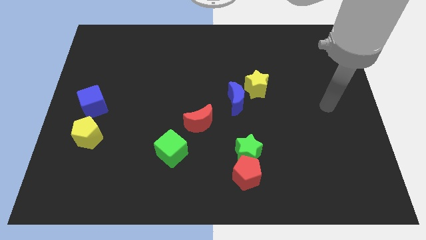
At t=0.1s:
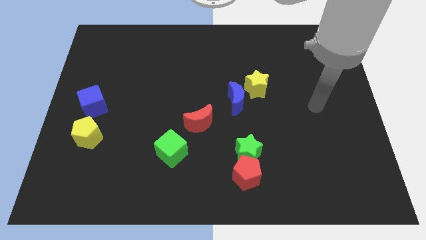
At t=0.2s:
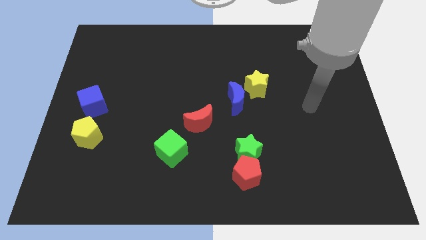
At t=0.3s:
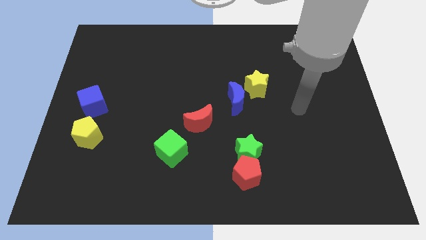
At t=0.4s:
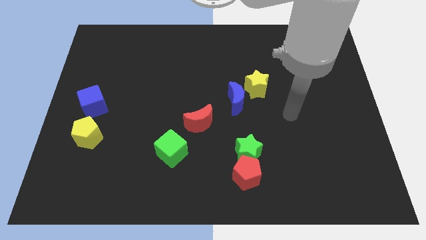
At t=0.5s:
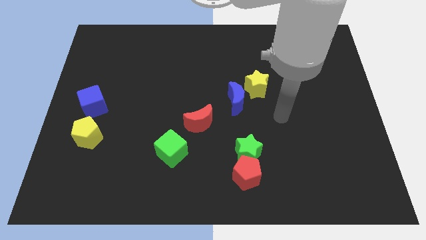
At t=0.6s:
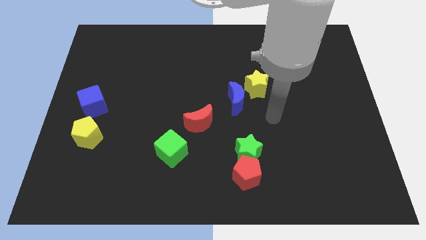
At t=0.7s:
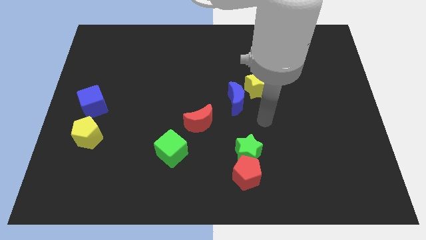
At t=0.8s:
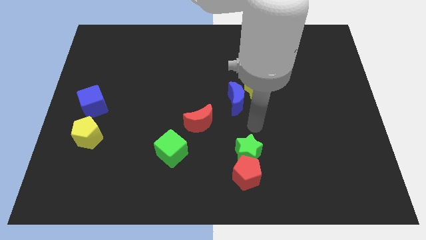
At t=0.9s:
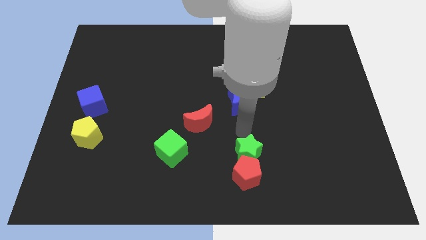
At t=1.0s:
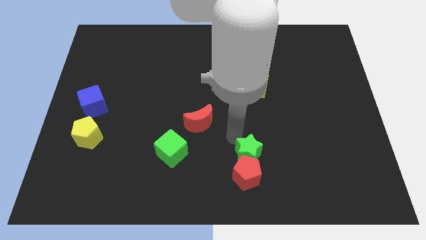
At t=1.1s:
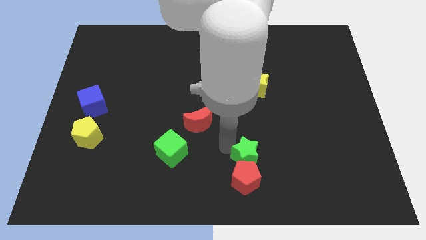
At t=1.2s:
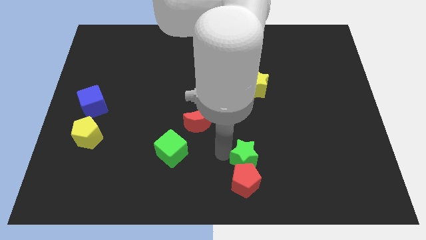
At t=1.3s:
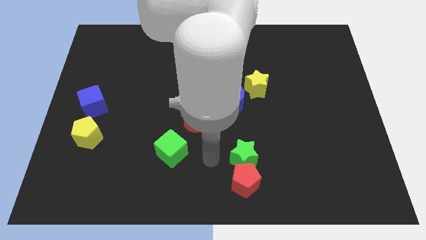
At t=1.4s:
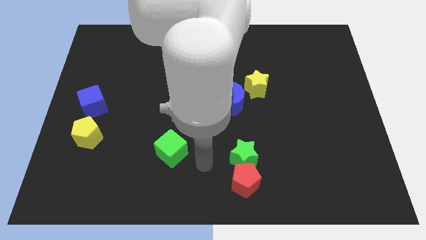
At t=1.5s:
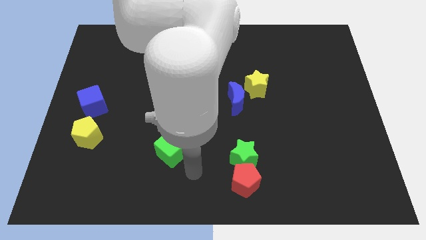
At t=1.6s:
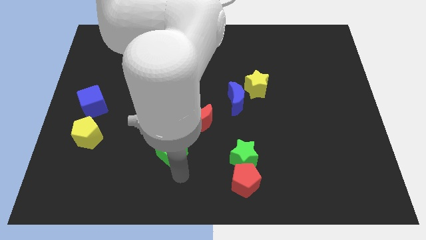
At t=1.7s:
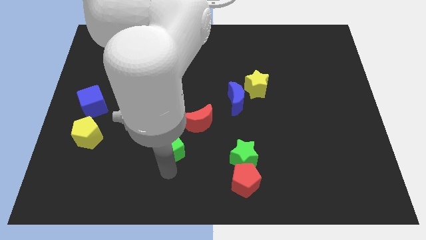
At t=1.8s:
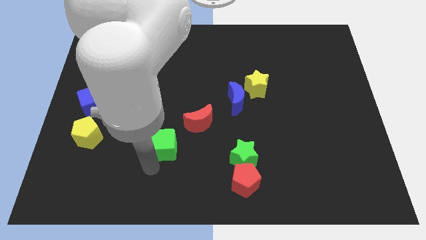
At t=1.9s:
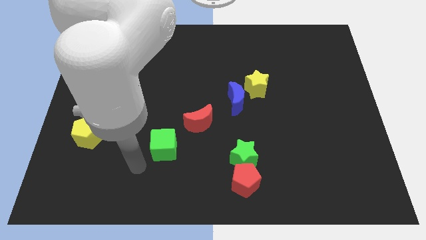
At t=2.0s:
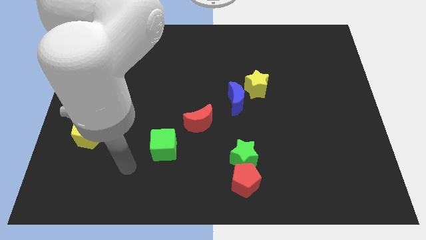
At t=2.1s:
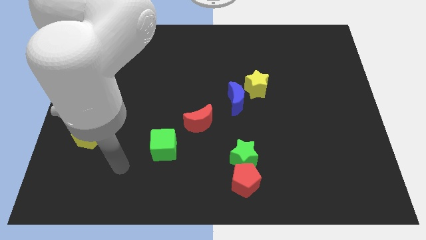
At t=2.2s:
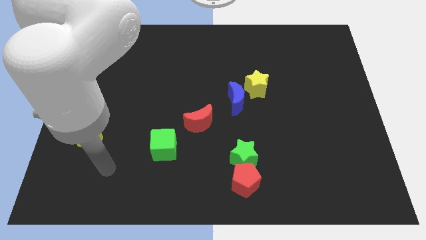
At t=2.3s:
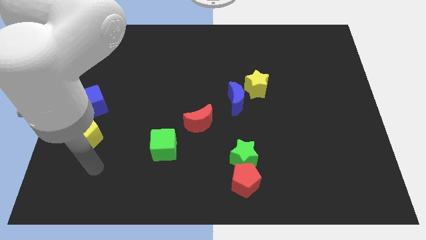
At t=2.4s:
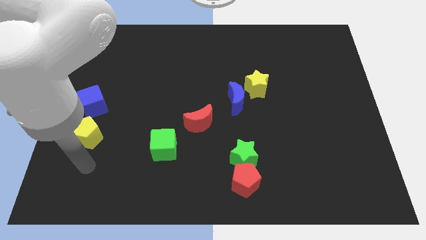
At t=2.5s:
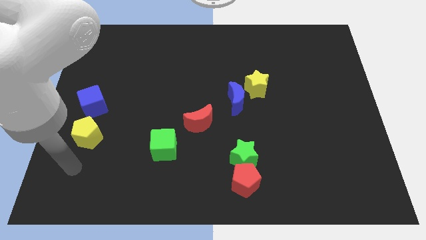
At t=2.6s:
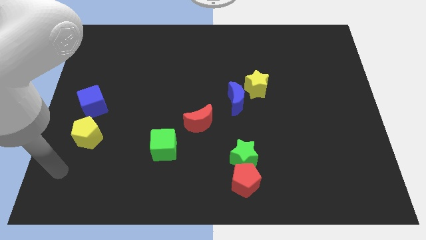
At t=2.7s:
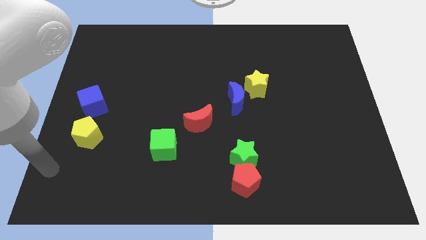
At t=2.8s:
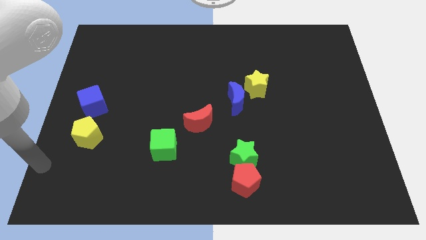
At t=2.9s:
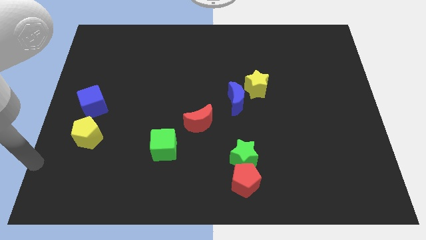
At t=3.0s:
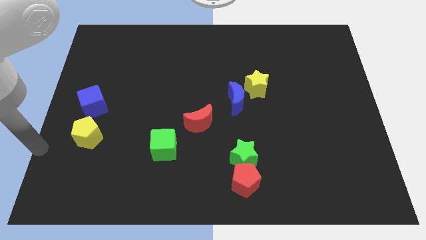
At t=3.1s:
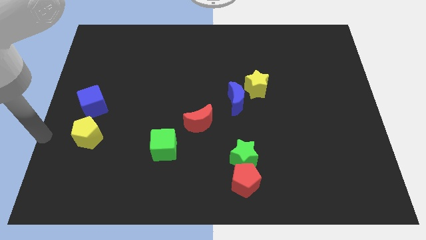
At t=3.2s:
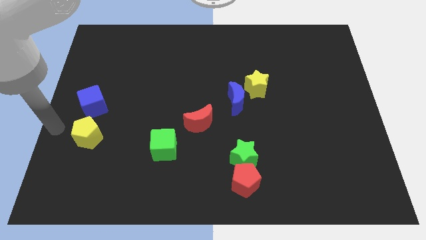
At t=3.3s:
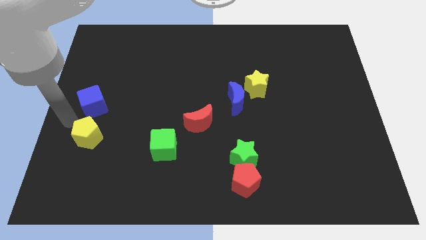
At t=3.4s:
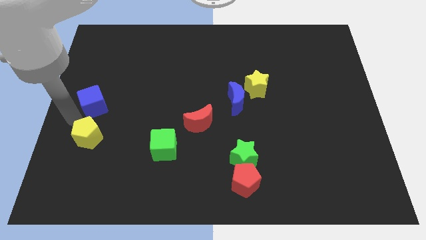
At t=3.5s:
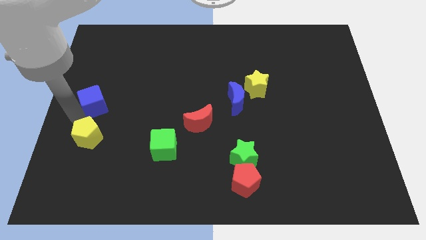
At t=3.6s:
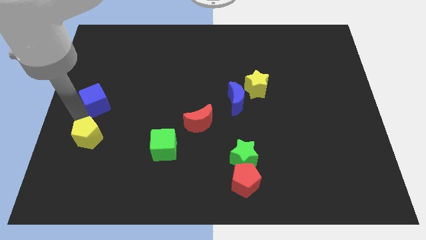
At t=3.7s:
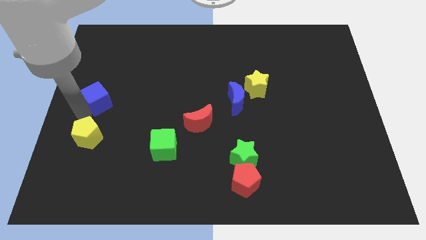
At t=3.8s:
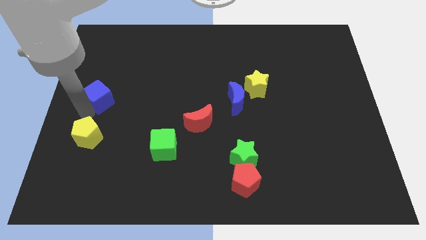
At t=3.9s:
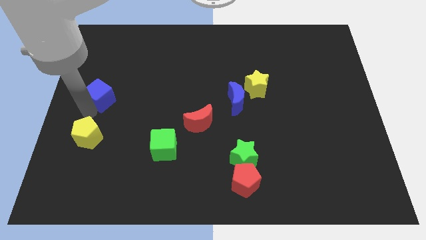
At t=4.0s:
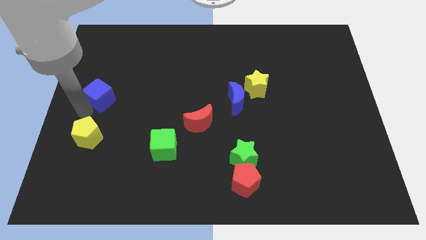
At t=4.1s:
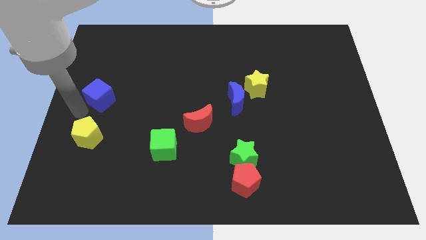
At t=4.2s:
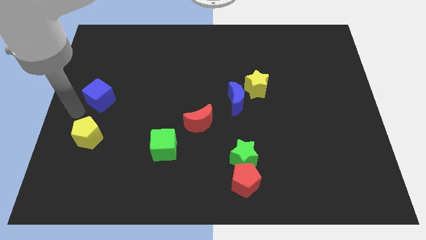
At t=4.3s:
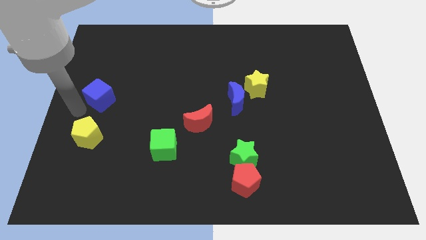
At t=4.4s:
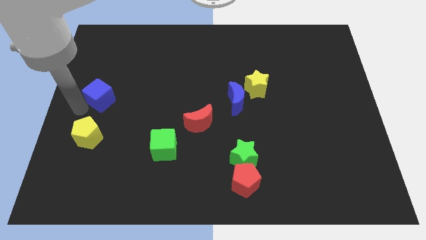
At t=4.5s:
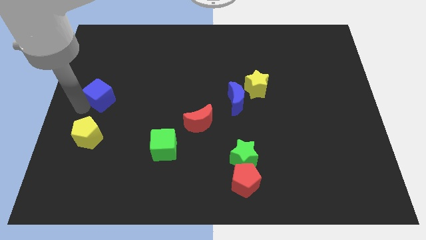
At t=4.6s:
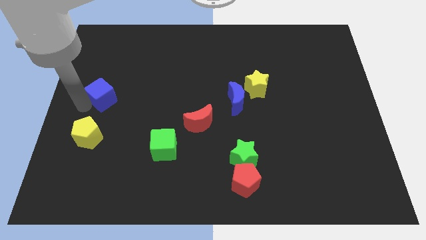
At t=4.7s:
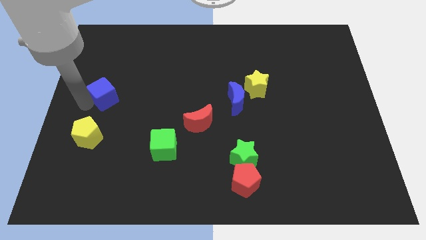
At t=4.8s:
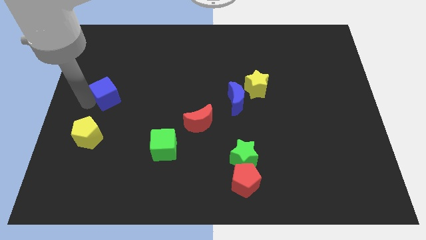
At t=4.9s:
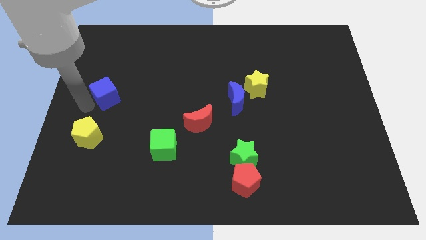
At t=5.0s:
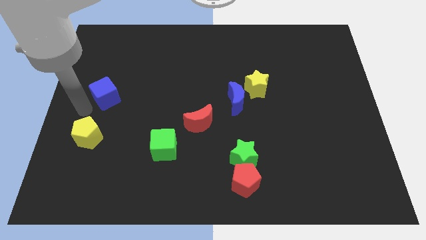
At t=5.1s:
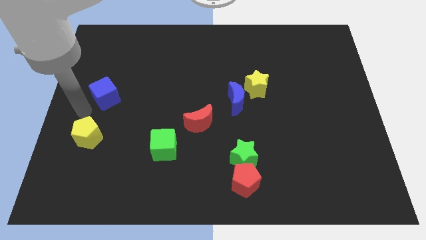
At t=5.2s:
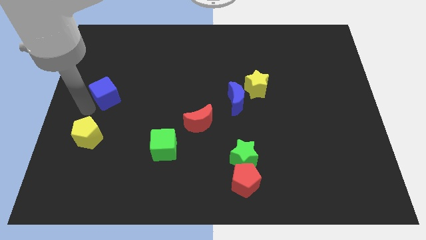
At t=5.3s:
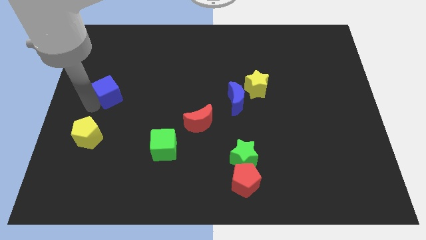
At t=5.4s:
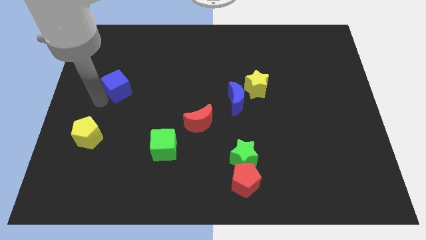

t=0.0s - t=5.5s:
slide the blue cube a little up and to the right

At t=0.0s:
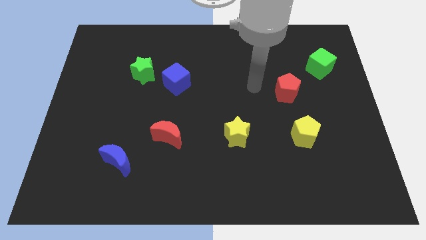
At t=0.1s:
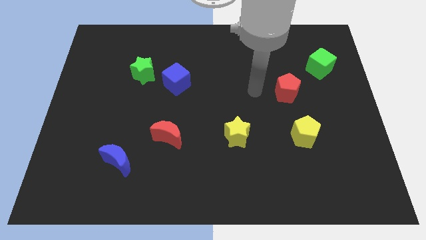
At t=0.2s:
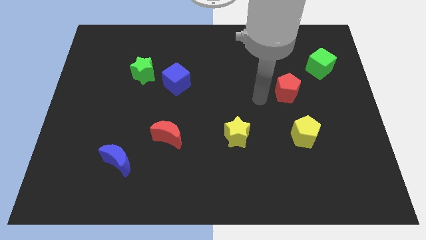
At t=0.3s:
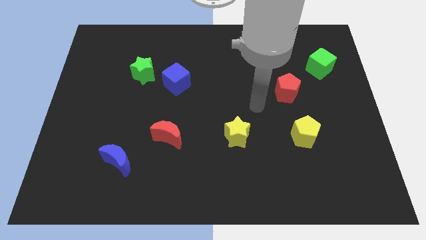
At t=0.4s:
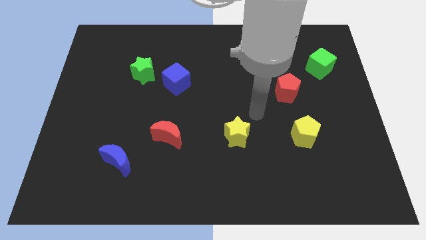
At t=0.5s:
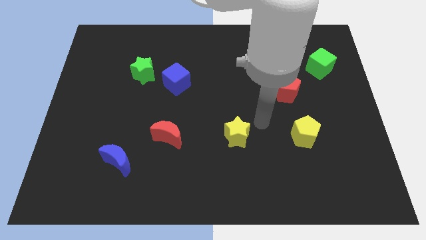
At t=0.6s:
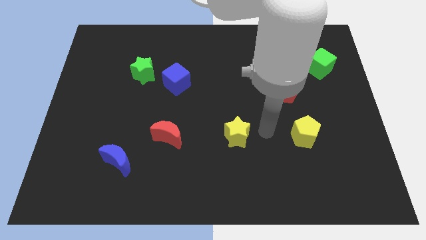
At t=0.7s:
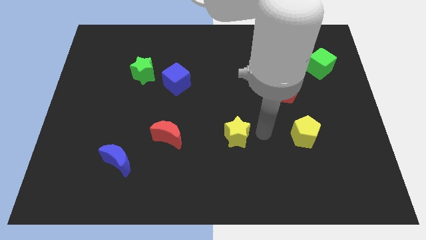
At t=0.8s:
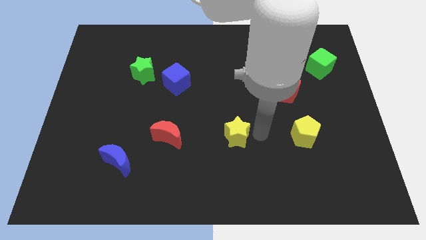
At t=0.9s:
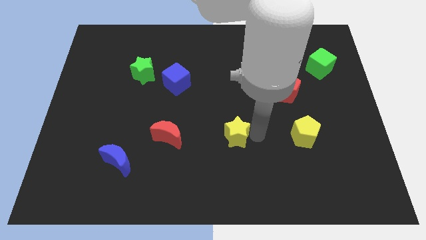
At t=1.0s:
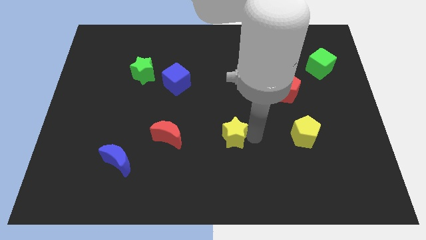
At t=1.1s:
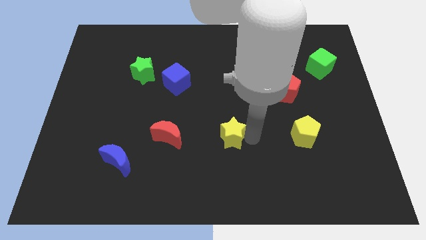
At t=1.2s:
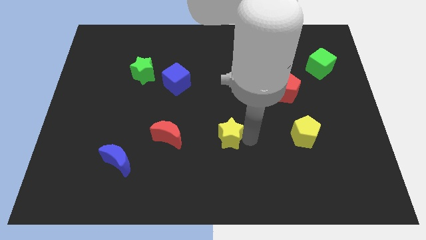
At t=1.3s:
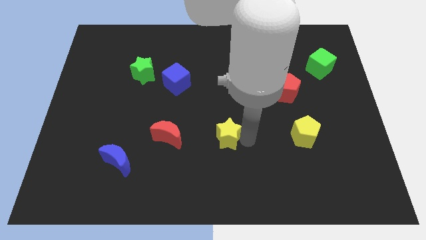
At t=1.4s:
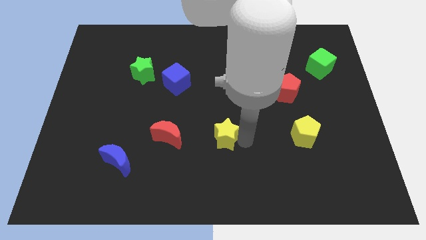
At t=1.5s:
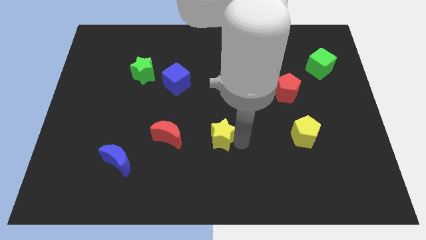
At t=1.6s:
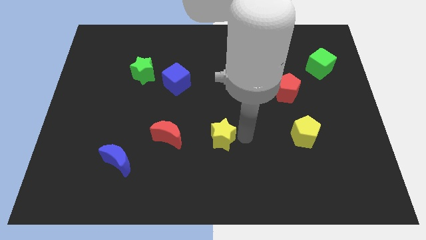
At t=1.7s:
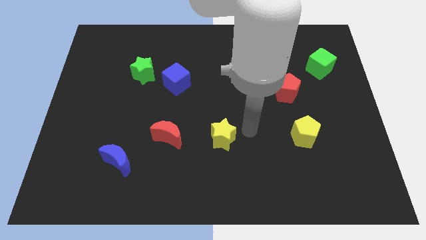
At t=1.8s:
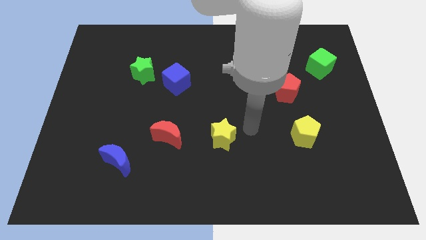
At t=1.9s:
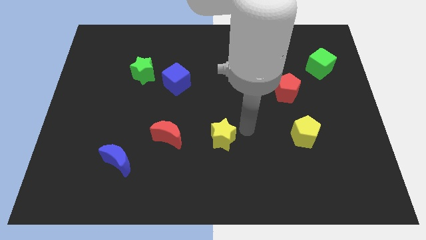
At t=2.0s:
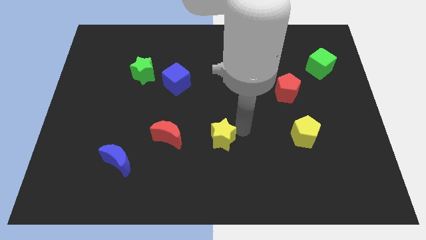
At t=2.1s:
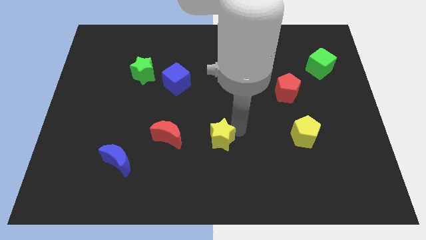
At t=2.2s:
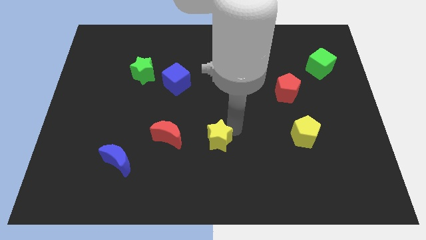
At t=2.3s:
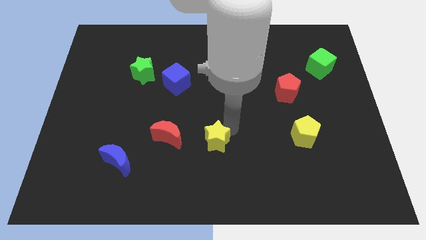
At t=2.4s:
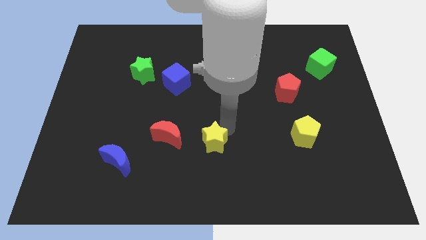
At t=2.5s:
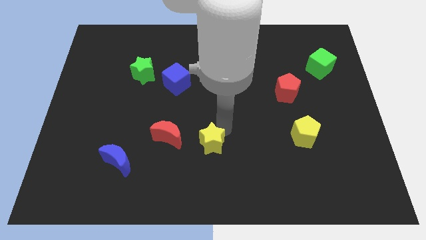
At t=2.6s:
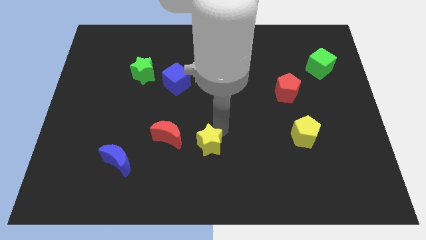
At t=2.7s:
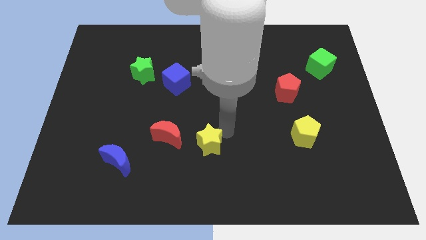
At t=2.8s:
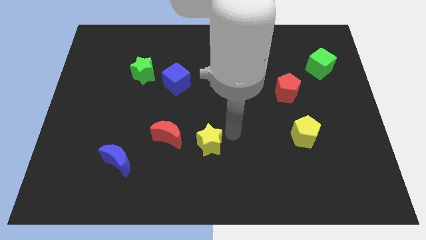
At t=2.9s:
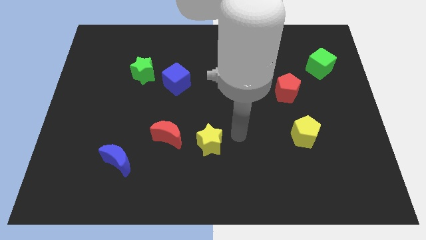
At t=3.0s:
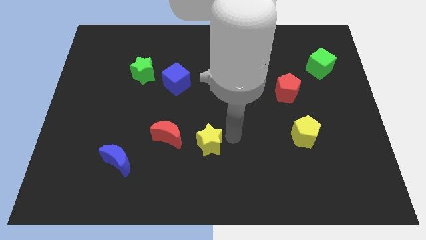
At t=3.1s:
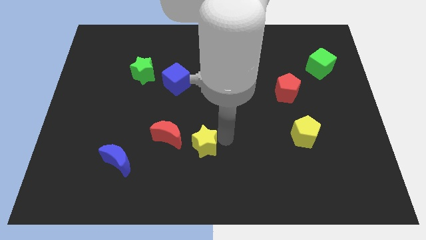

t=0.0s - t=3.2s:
slightly push the yellow star to the left
